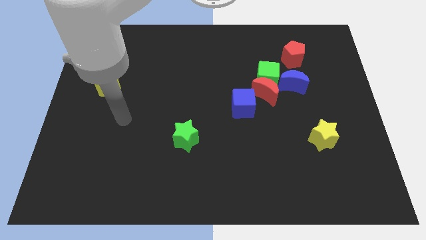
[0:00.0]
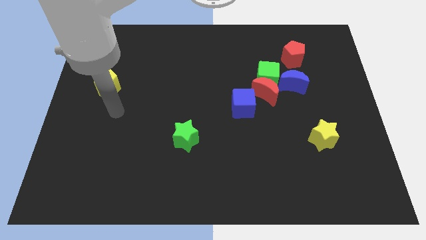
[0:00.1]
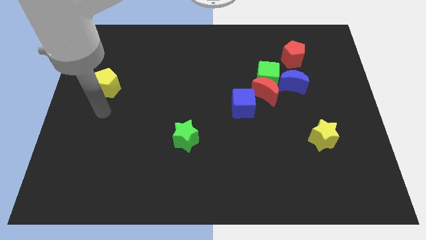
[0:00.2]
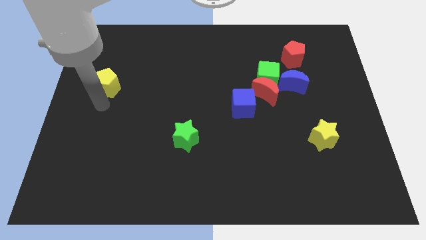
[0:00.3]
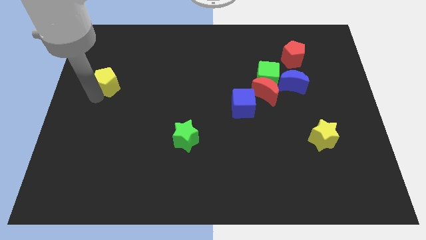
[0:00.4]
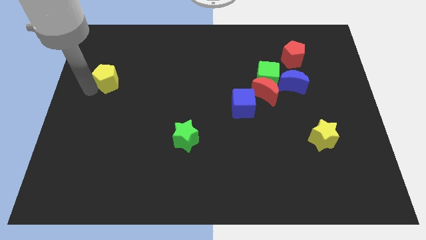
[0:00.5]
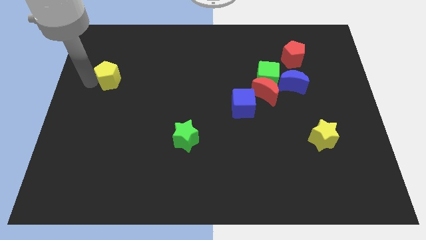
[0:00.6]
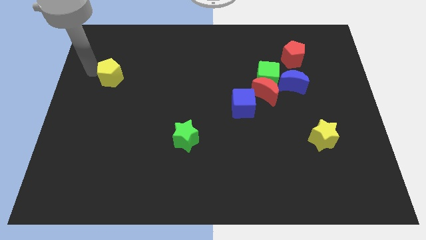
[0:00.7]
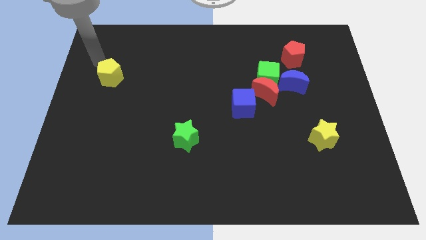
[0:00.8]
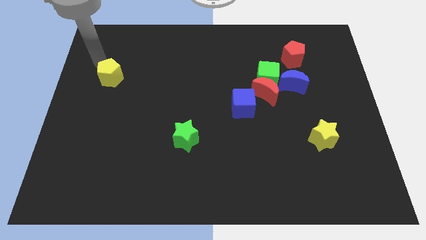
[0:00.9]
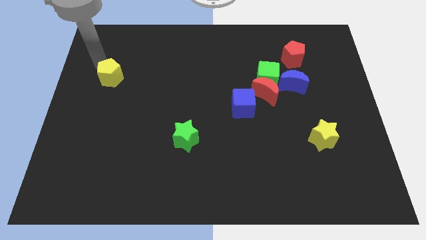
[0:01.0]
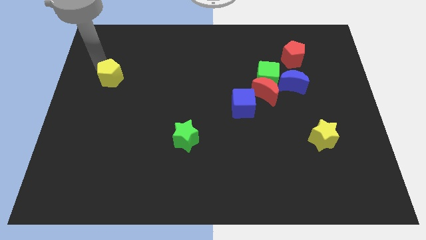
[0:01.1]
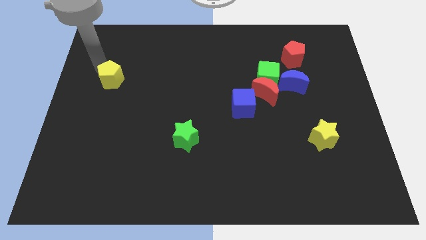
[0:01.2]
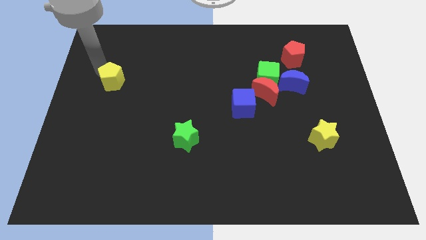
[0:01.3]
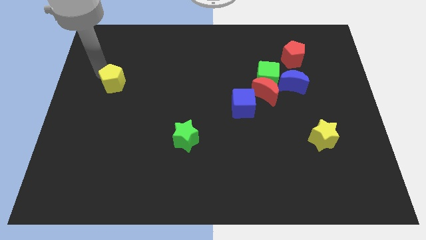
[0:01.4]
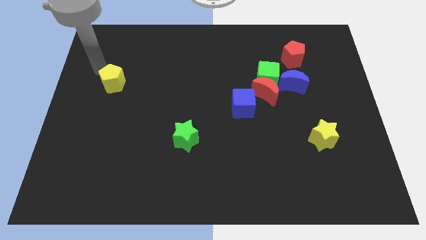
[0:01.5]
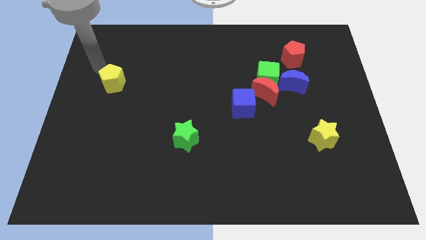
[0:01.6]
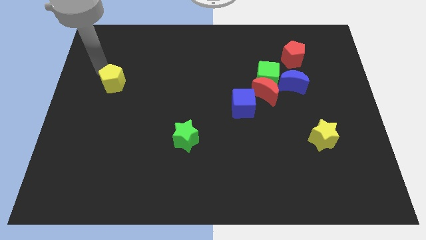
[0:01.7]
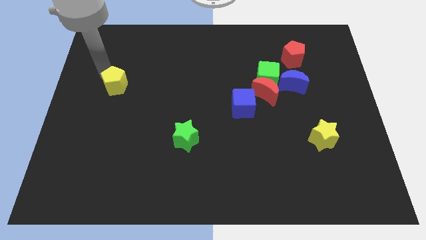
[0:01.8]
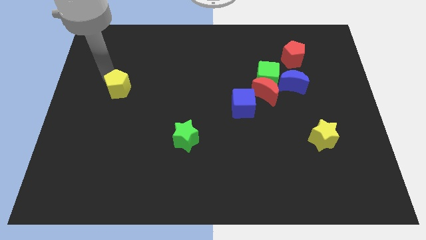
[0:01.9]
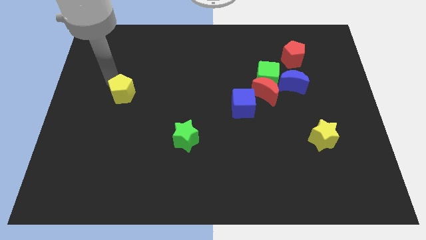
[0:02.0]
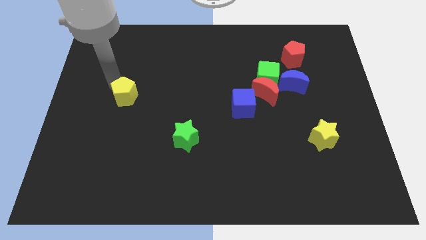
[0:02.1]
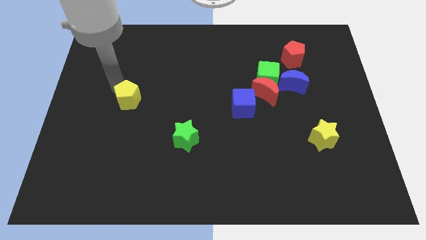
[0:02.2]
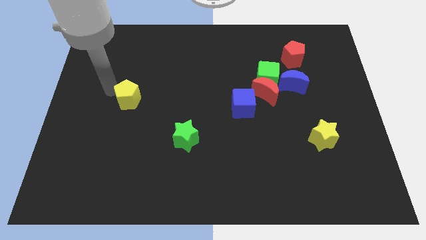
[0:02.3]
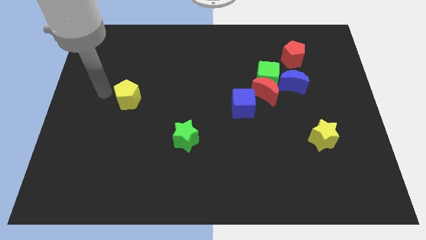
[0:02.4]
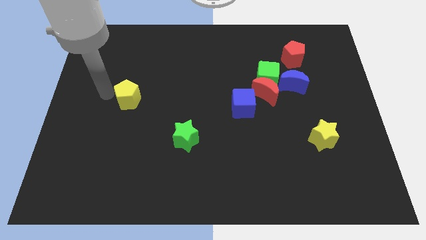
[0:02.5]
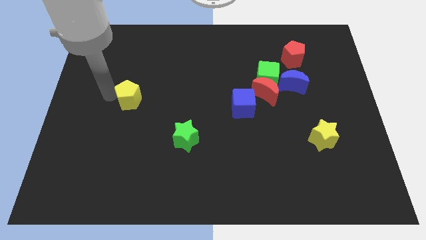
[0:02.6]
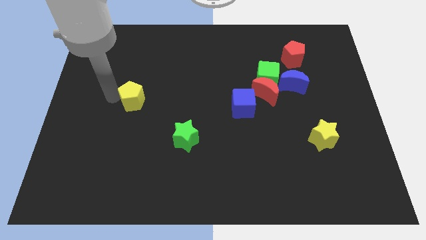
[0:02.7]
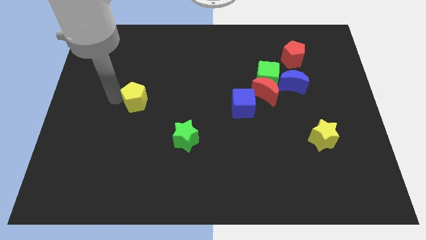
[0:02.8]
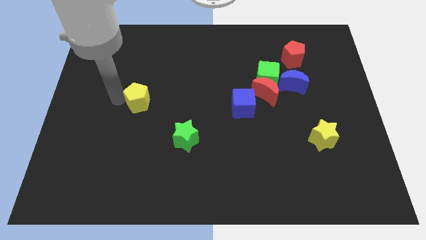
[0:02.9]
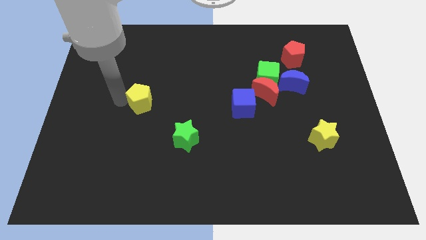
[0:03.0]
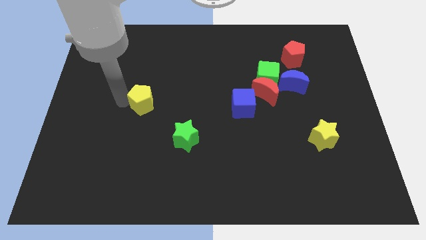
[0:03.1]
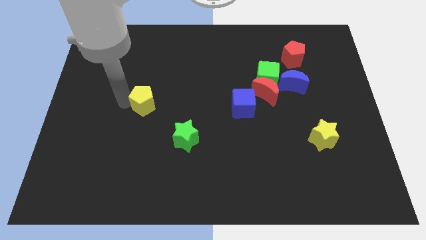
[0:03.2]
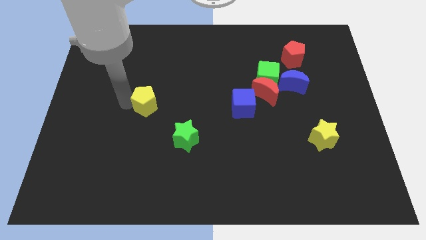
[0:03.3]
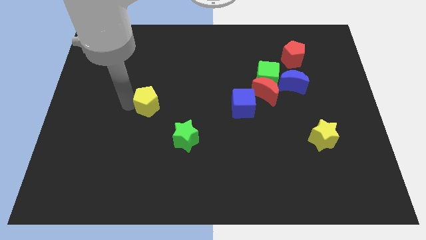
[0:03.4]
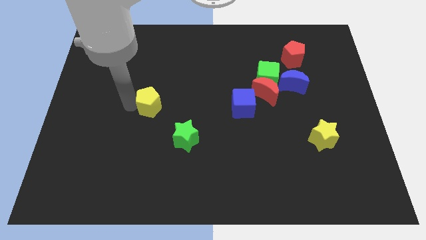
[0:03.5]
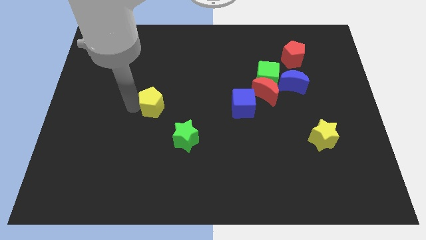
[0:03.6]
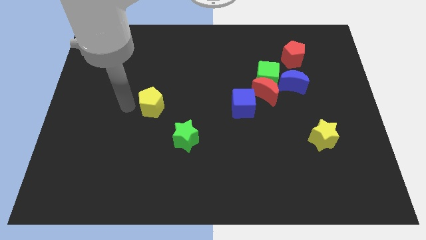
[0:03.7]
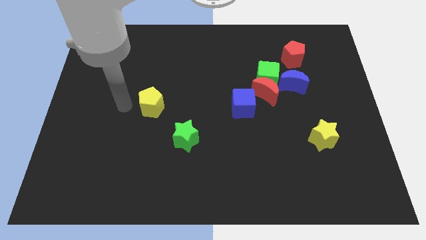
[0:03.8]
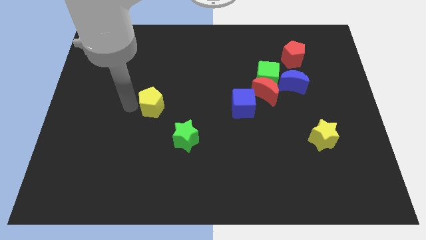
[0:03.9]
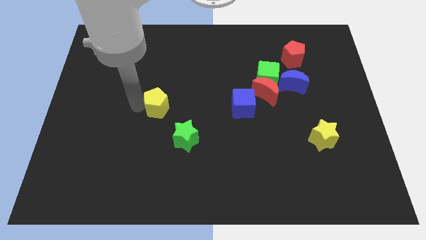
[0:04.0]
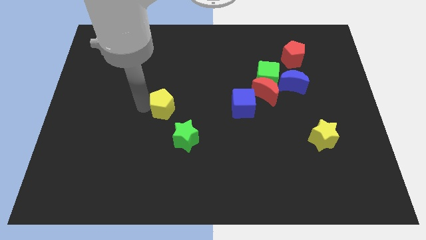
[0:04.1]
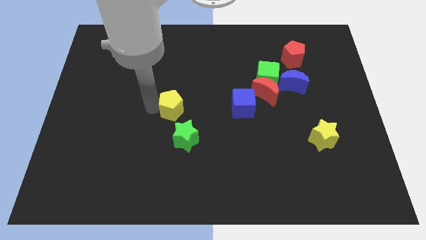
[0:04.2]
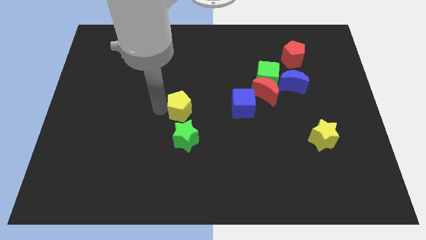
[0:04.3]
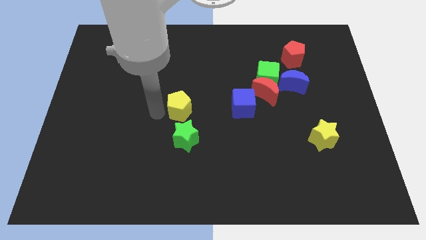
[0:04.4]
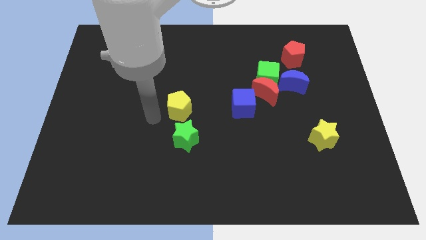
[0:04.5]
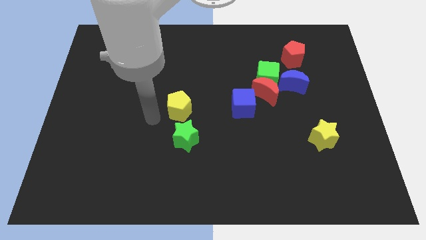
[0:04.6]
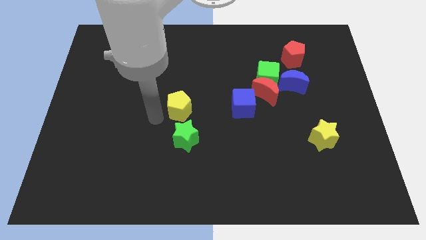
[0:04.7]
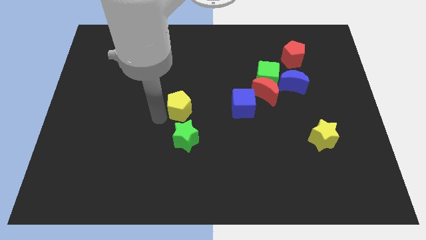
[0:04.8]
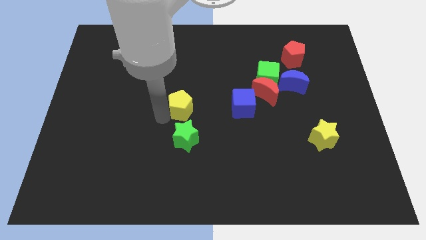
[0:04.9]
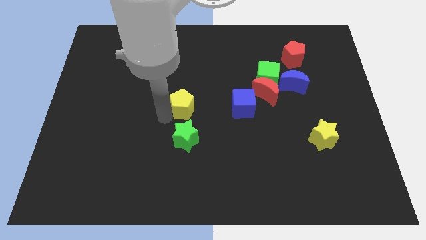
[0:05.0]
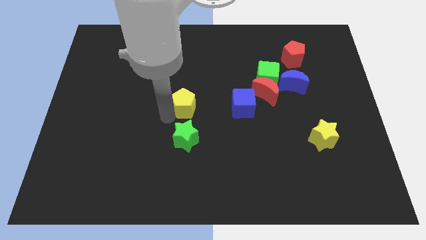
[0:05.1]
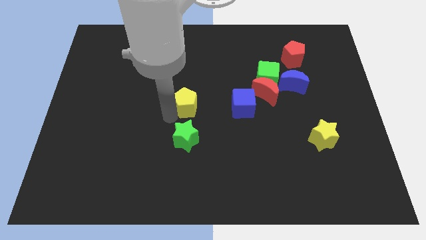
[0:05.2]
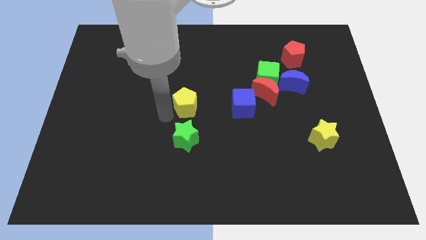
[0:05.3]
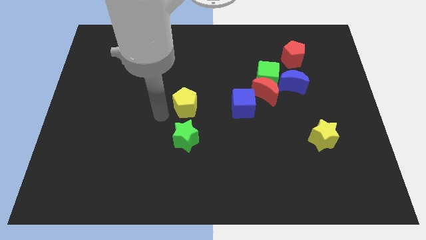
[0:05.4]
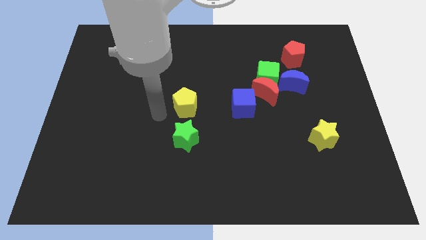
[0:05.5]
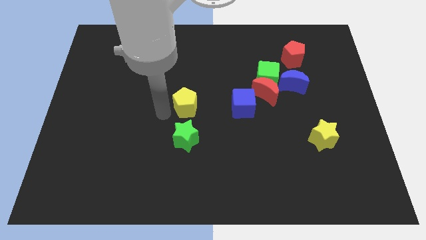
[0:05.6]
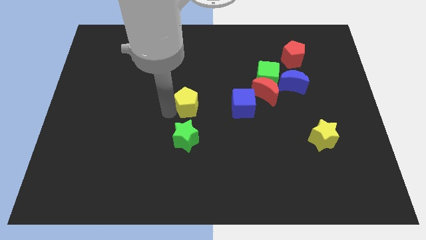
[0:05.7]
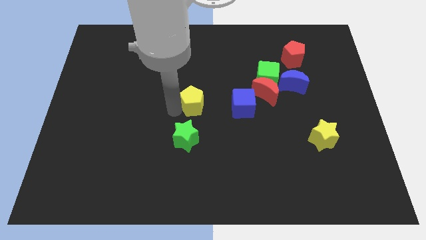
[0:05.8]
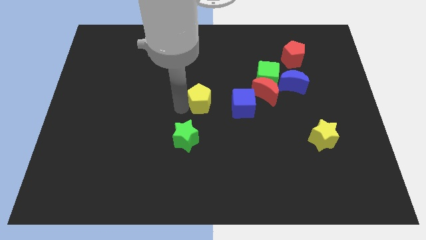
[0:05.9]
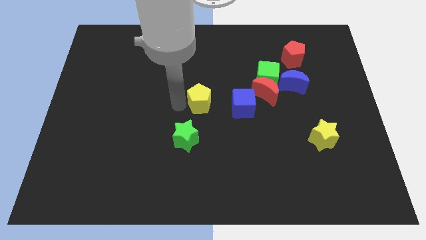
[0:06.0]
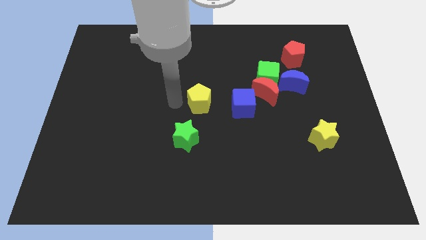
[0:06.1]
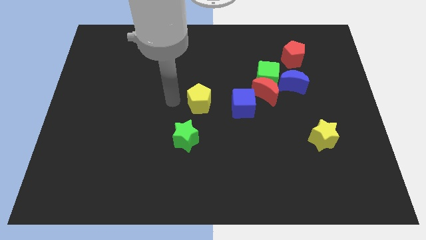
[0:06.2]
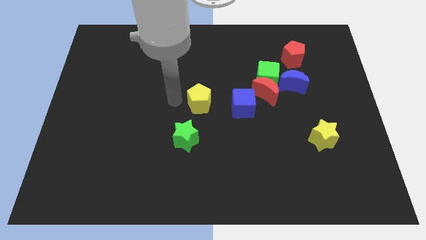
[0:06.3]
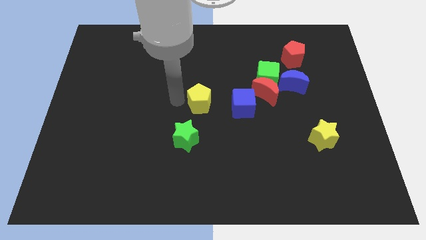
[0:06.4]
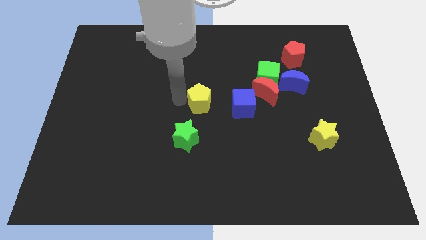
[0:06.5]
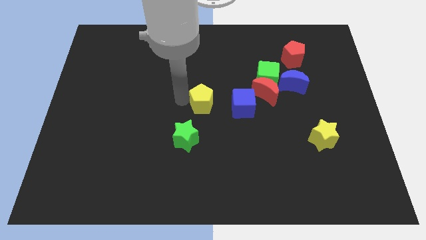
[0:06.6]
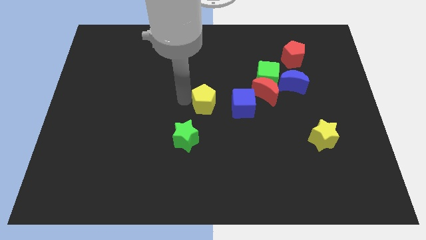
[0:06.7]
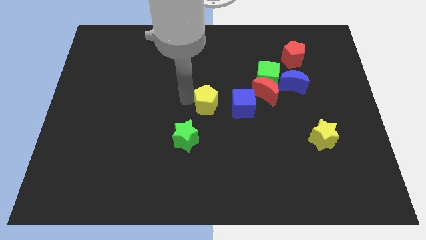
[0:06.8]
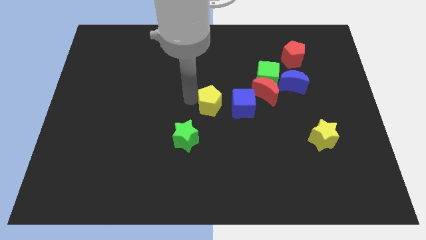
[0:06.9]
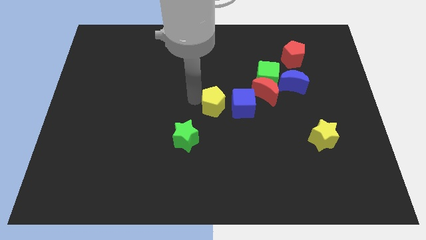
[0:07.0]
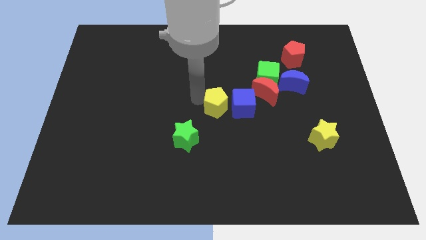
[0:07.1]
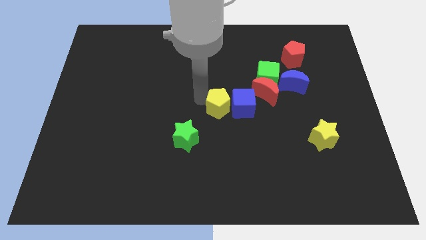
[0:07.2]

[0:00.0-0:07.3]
slide the yellow pentagon close to the blue cube

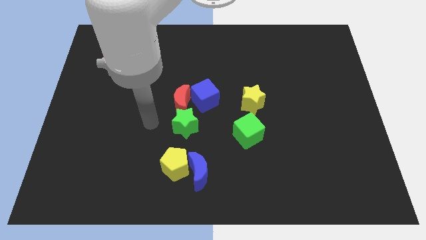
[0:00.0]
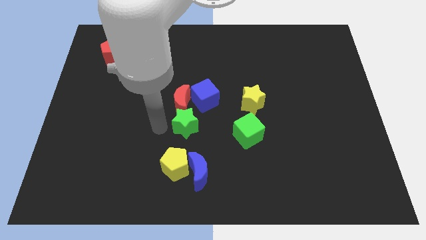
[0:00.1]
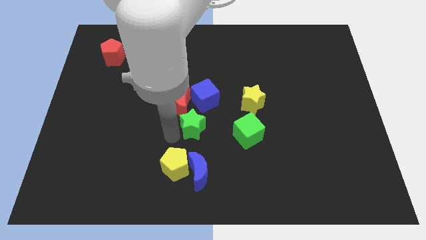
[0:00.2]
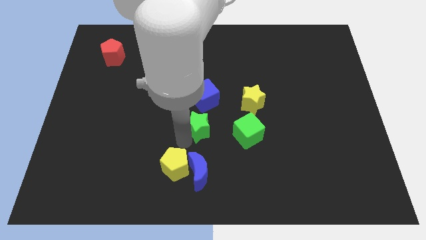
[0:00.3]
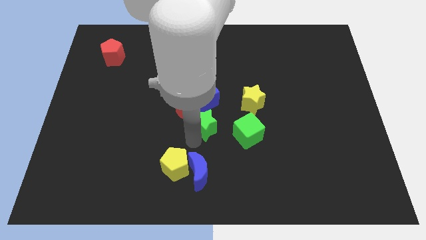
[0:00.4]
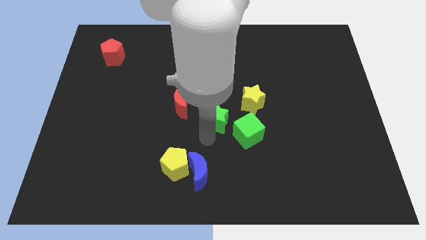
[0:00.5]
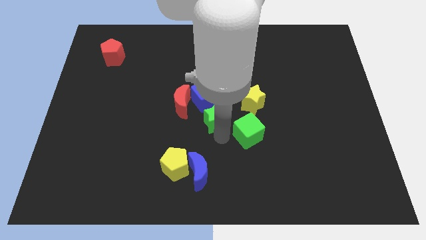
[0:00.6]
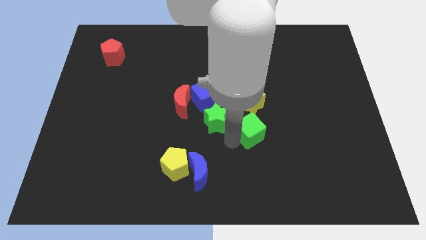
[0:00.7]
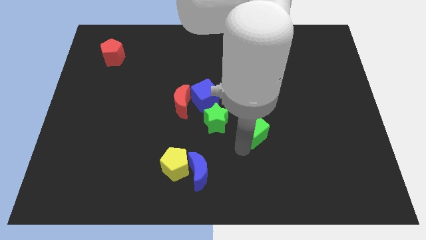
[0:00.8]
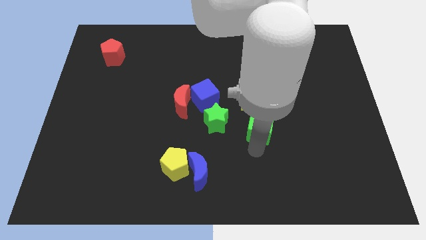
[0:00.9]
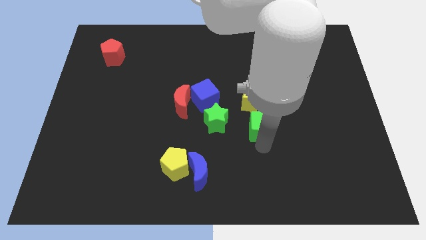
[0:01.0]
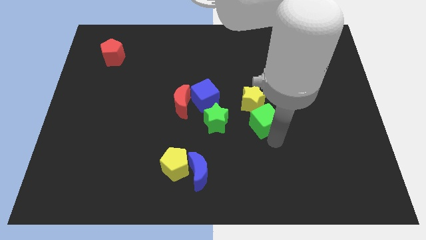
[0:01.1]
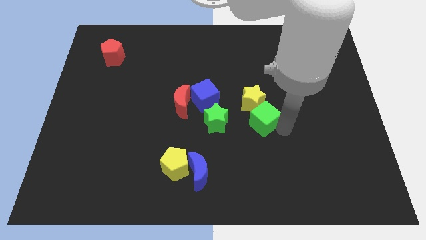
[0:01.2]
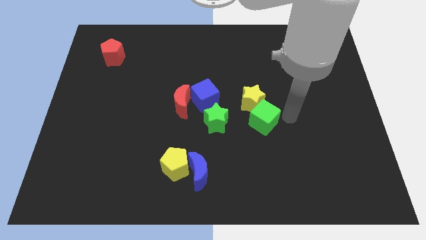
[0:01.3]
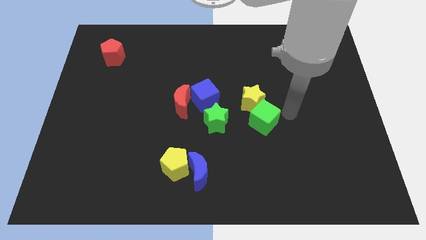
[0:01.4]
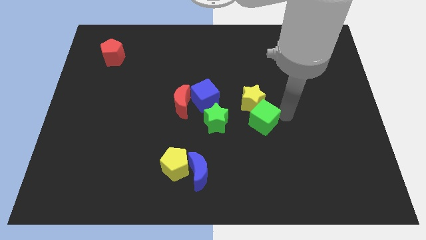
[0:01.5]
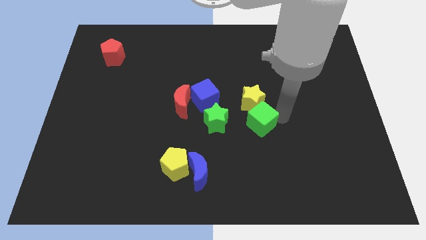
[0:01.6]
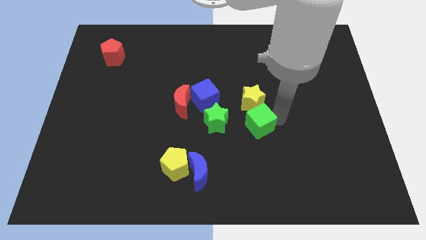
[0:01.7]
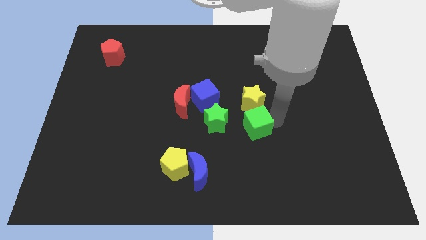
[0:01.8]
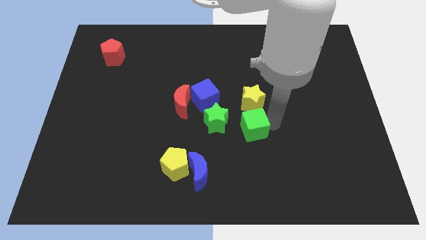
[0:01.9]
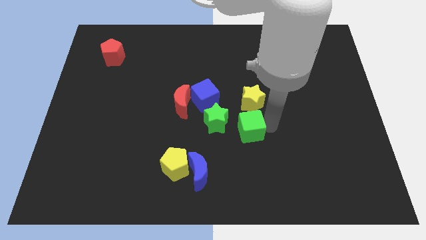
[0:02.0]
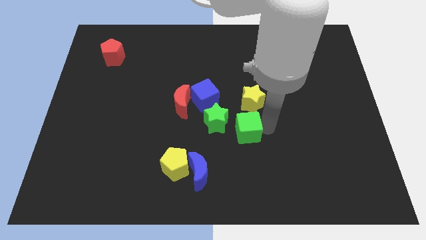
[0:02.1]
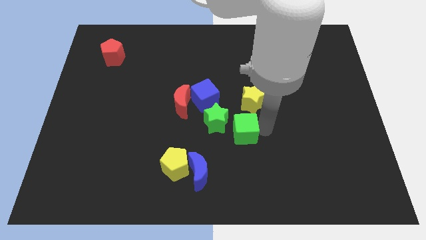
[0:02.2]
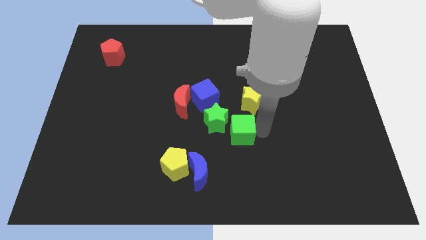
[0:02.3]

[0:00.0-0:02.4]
slide the green cube close to the green star
